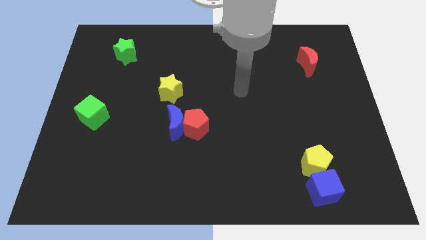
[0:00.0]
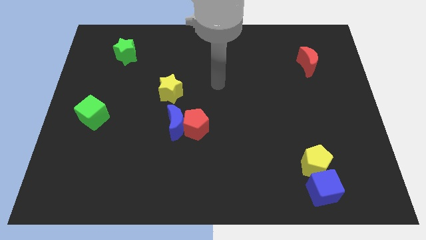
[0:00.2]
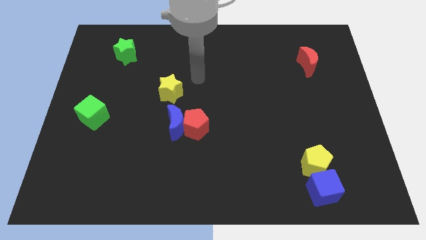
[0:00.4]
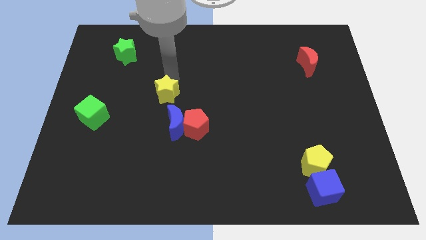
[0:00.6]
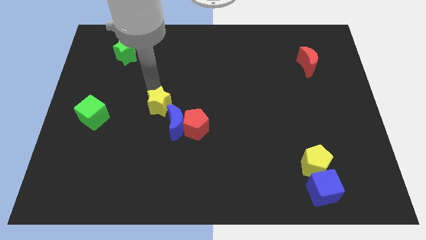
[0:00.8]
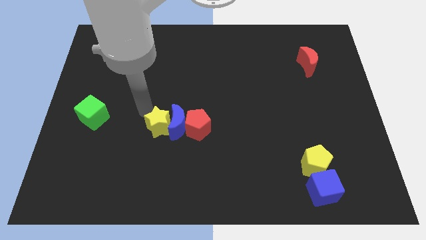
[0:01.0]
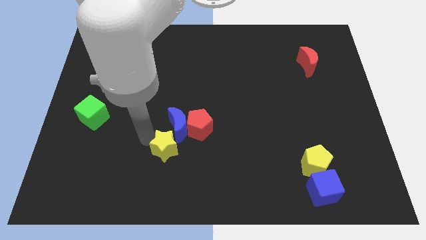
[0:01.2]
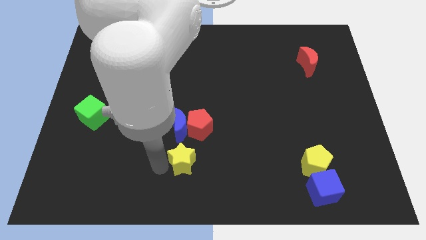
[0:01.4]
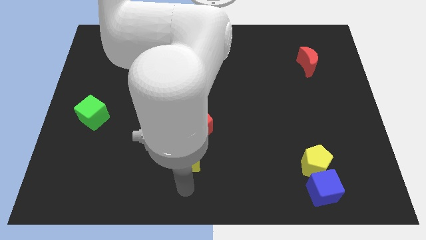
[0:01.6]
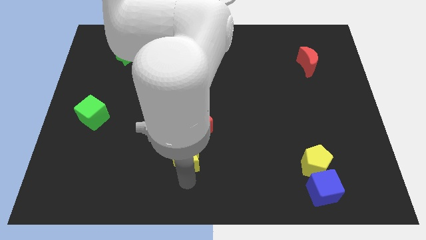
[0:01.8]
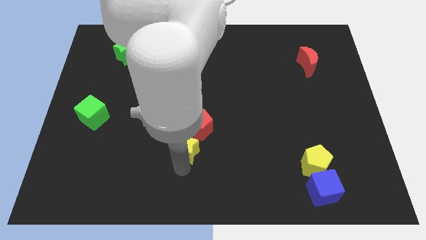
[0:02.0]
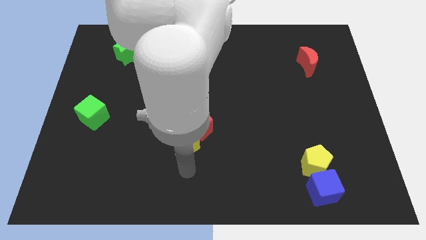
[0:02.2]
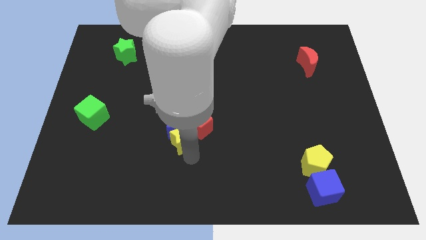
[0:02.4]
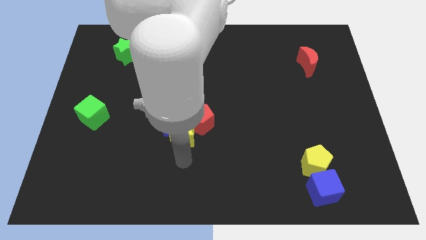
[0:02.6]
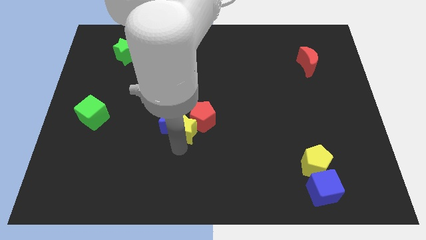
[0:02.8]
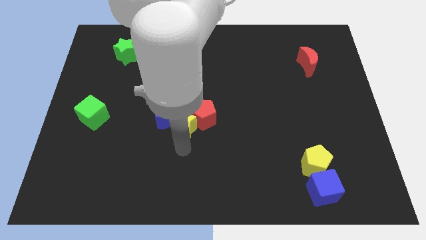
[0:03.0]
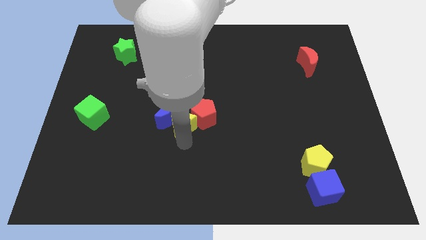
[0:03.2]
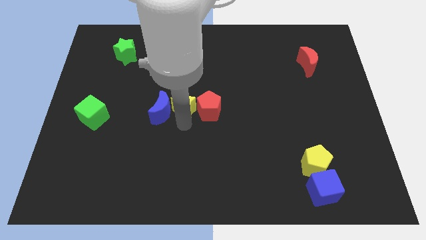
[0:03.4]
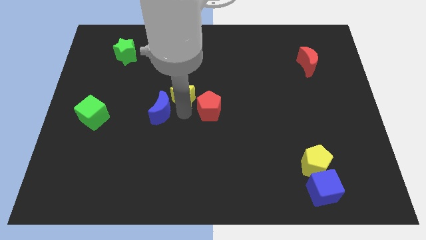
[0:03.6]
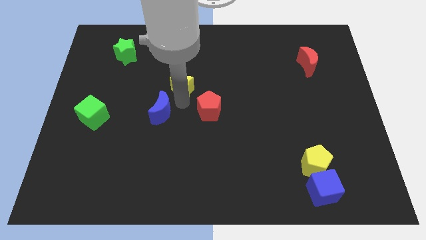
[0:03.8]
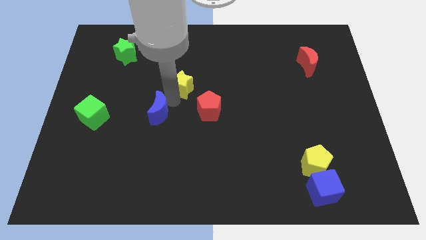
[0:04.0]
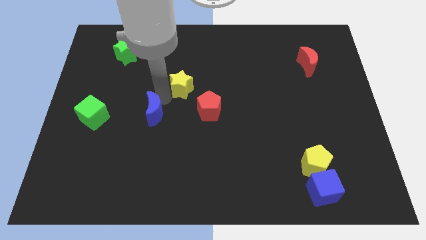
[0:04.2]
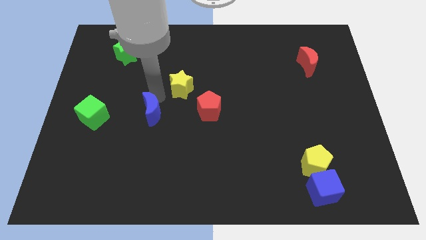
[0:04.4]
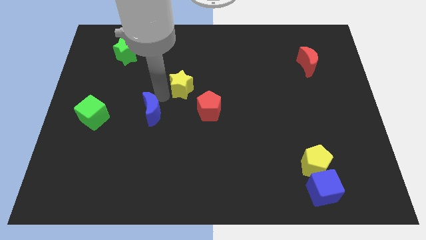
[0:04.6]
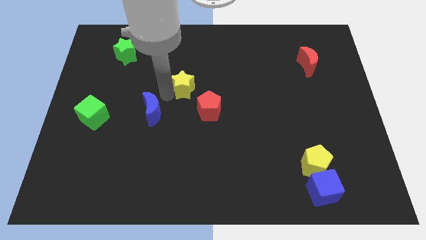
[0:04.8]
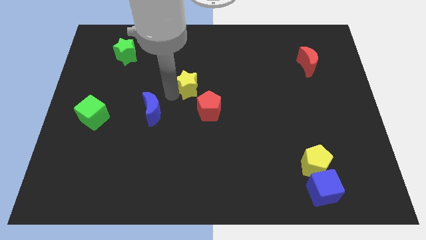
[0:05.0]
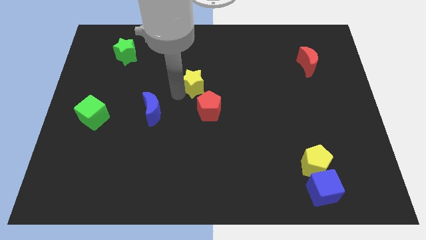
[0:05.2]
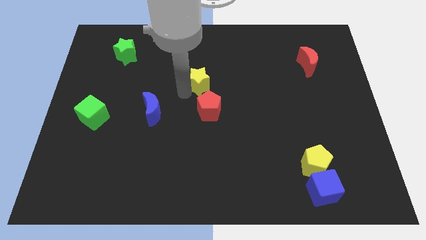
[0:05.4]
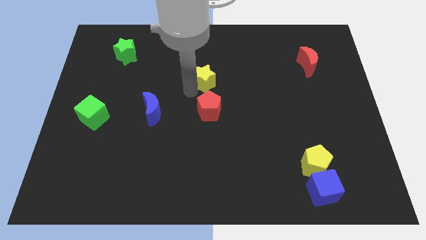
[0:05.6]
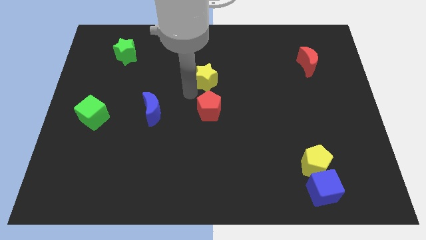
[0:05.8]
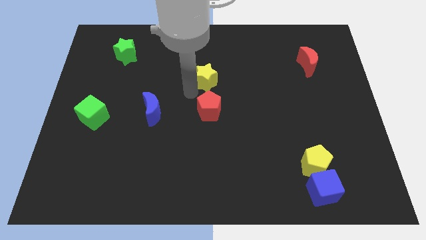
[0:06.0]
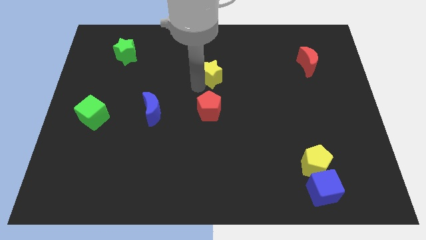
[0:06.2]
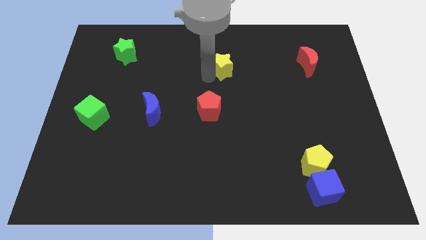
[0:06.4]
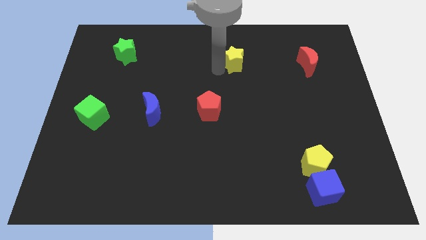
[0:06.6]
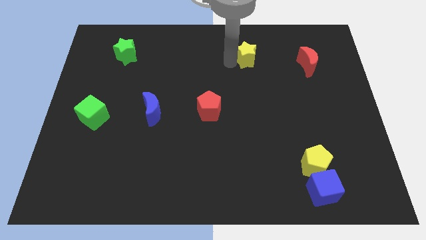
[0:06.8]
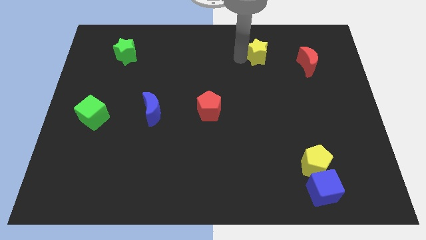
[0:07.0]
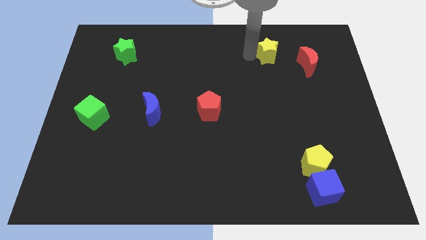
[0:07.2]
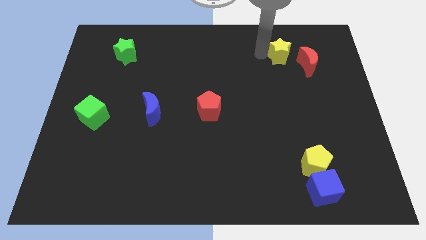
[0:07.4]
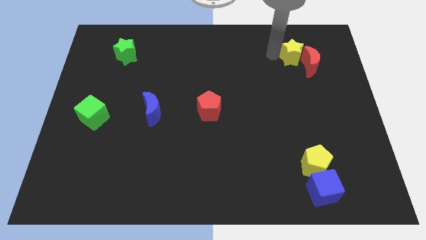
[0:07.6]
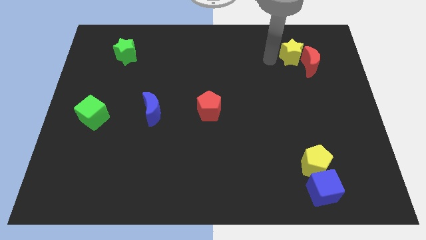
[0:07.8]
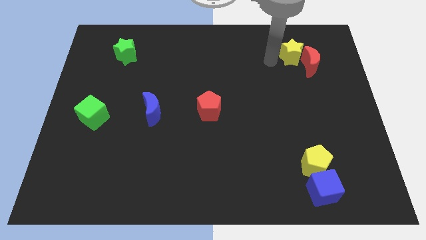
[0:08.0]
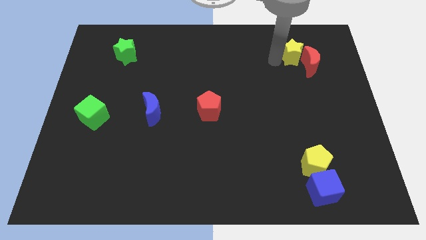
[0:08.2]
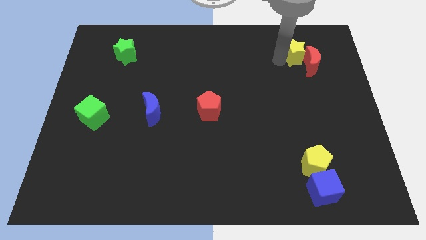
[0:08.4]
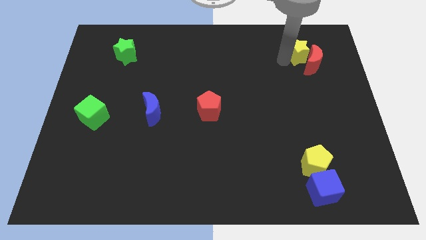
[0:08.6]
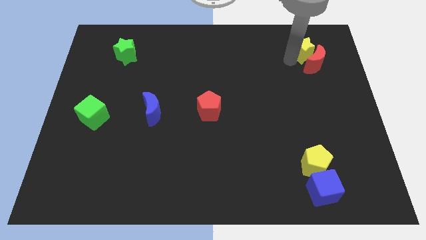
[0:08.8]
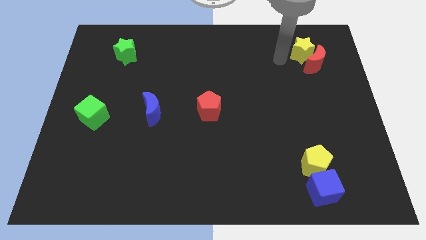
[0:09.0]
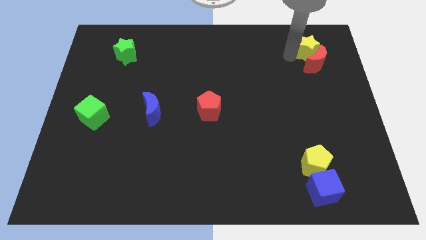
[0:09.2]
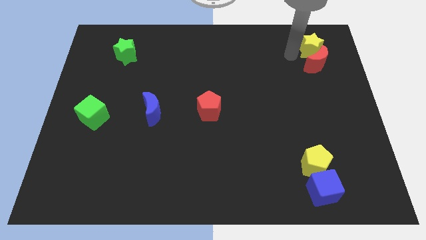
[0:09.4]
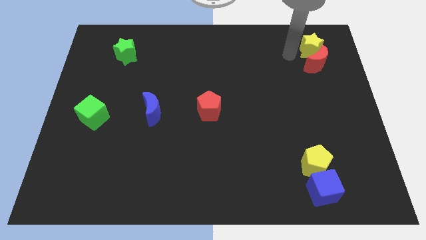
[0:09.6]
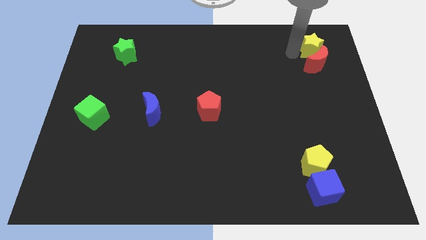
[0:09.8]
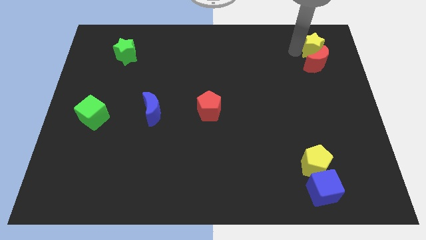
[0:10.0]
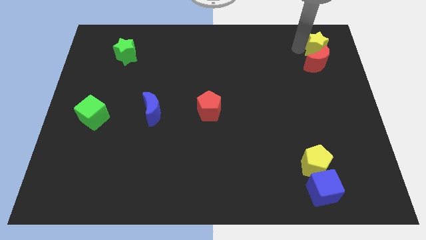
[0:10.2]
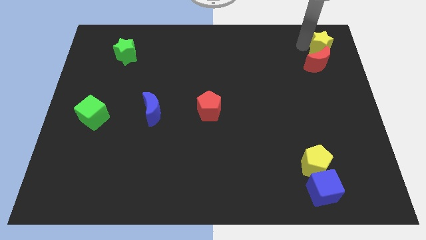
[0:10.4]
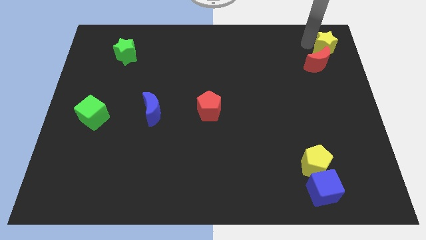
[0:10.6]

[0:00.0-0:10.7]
slide the yellow star to the top right of the board

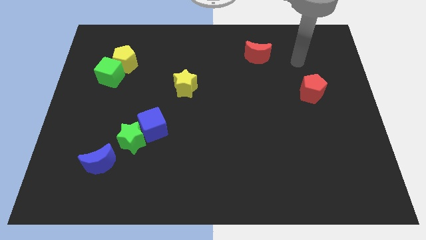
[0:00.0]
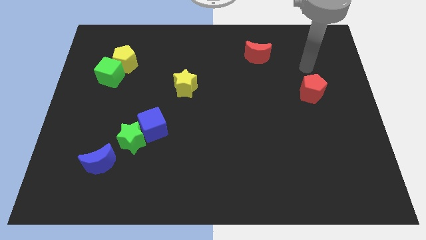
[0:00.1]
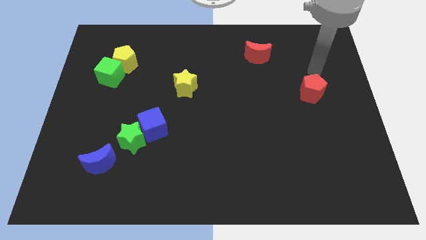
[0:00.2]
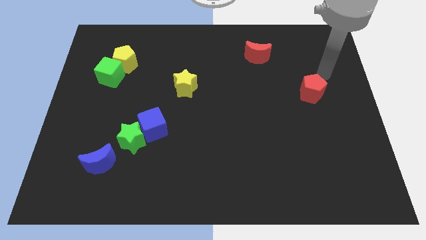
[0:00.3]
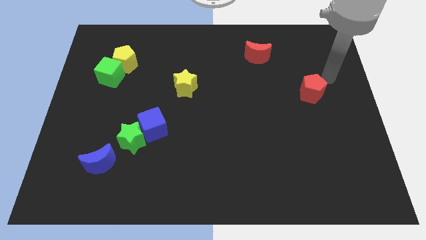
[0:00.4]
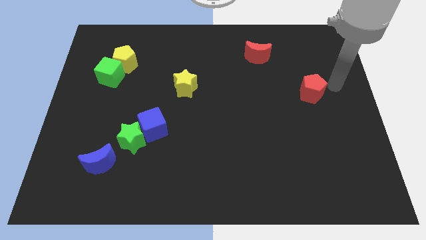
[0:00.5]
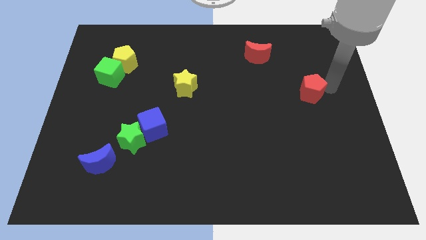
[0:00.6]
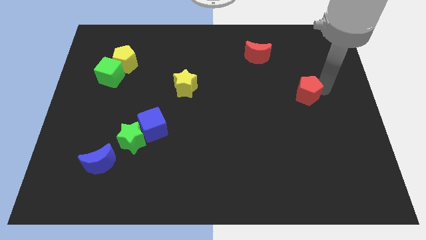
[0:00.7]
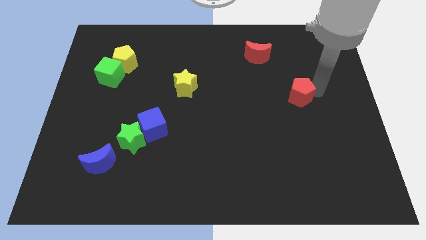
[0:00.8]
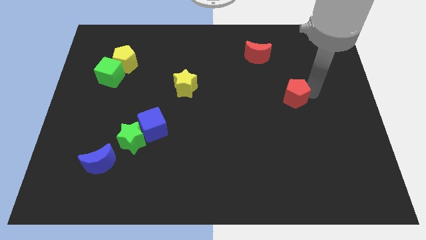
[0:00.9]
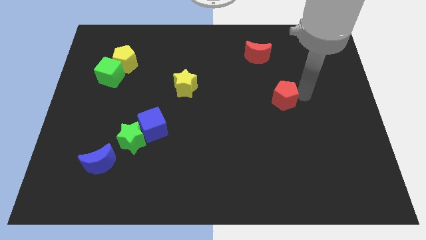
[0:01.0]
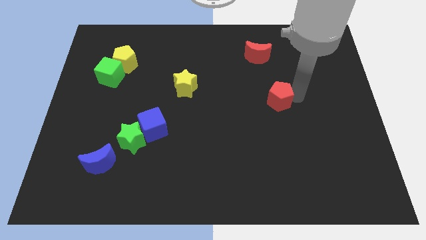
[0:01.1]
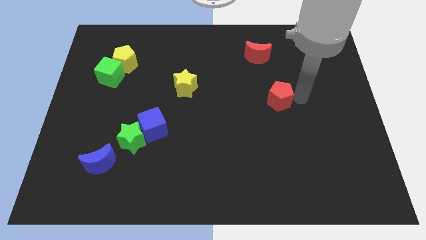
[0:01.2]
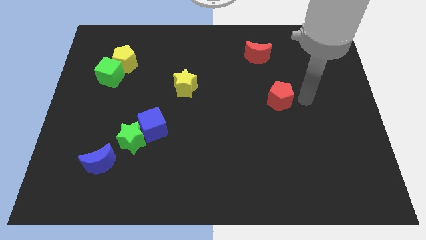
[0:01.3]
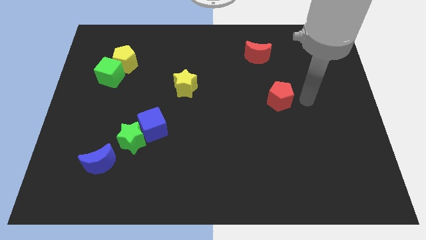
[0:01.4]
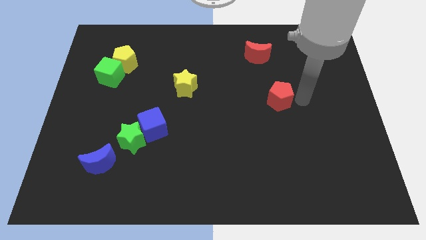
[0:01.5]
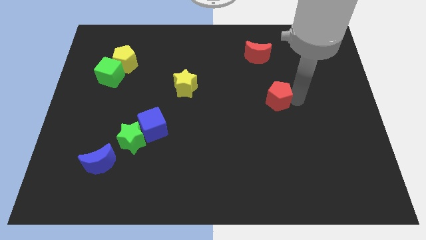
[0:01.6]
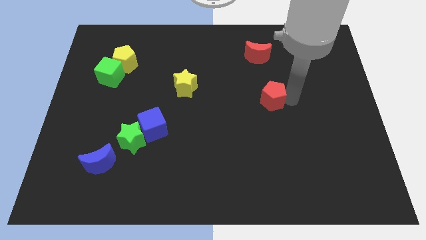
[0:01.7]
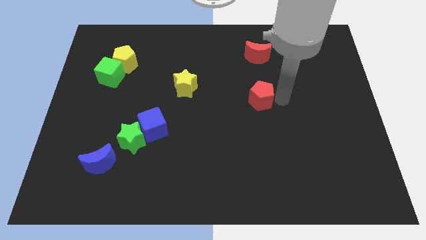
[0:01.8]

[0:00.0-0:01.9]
move the red pentagon to the middle
